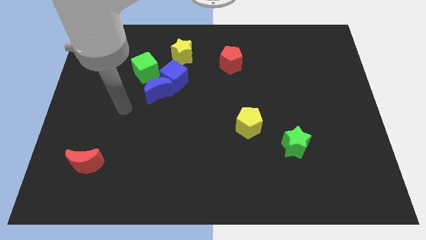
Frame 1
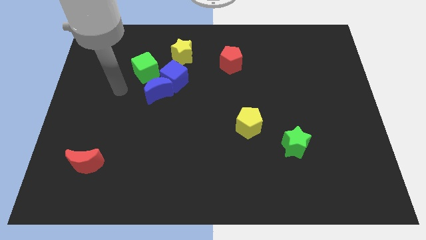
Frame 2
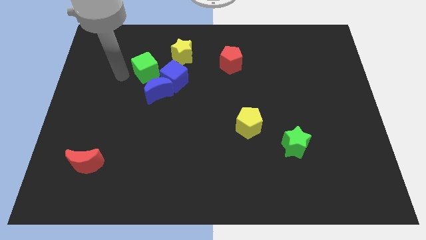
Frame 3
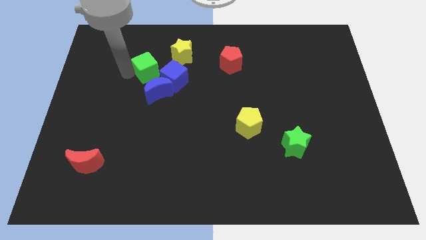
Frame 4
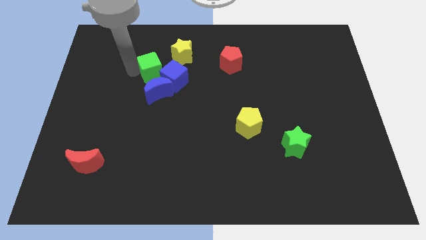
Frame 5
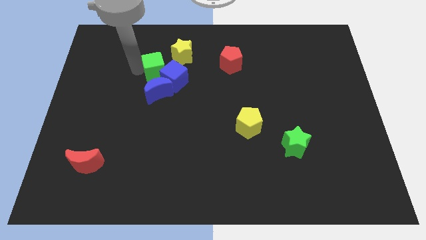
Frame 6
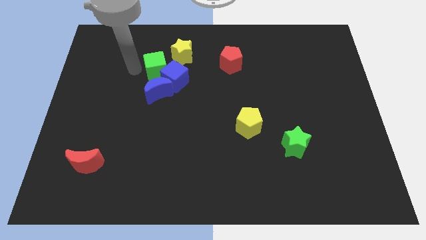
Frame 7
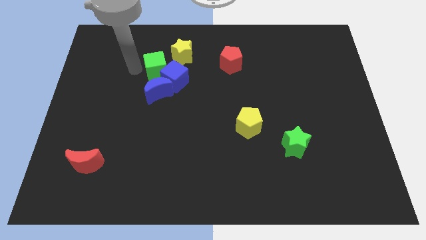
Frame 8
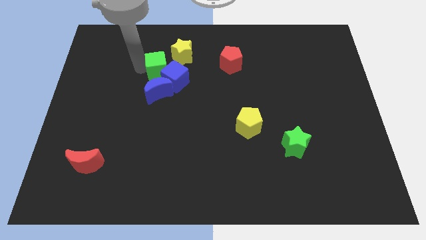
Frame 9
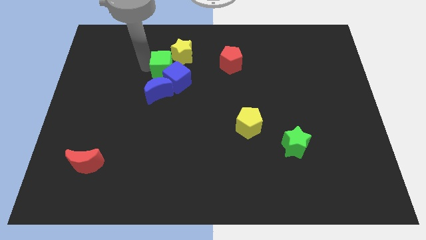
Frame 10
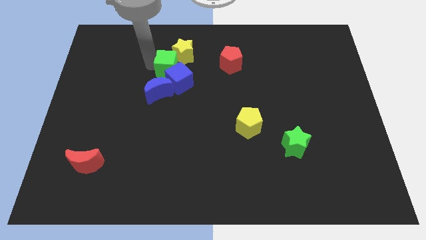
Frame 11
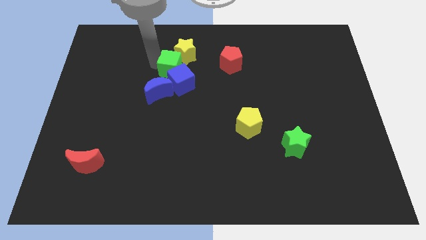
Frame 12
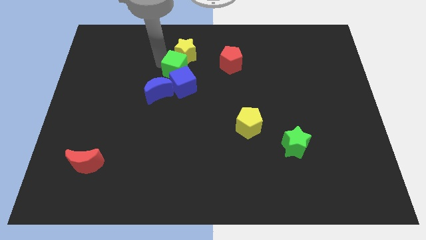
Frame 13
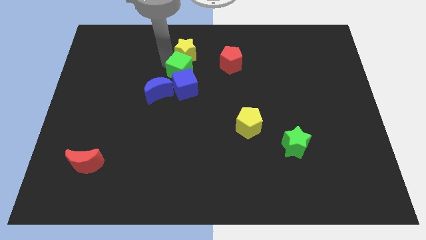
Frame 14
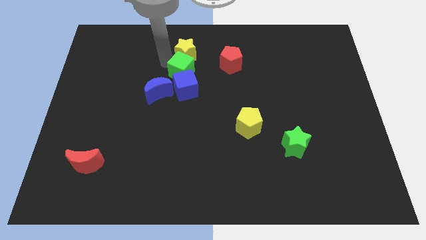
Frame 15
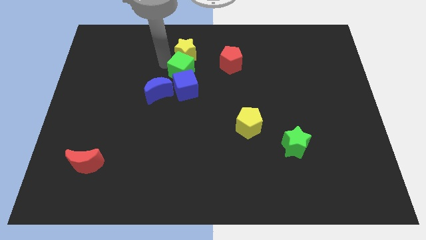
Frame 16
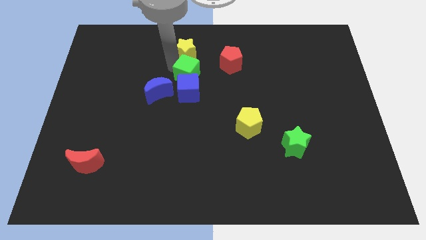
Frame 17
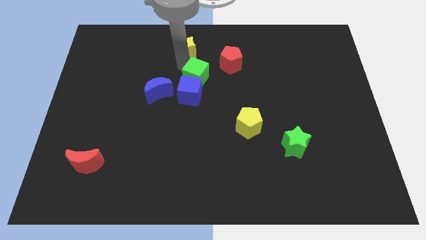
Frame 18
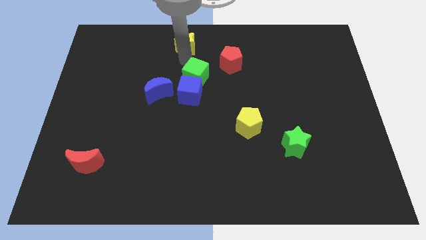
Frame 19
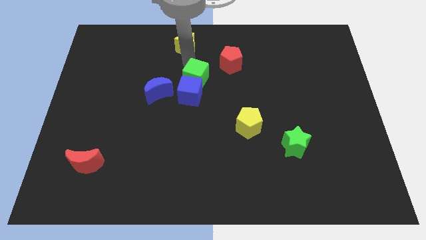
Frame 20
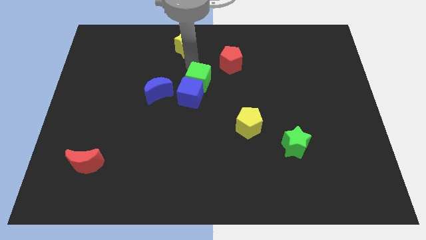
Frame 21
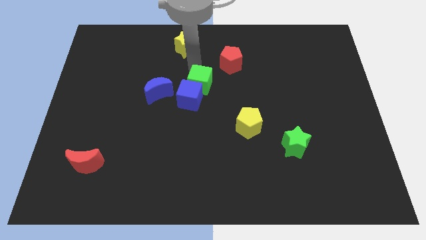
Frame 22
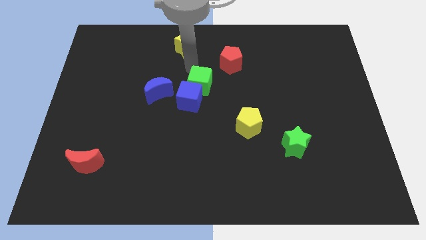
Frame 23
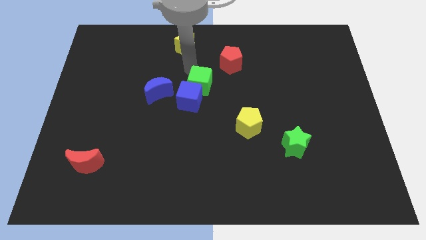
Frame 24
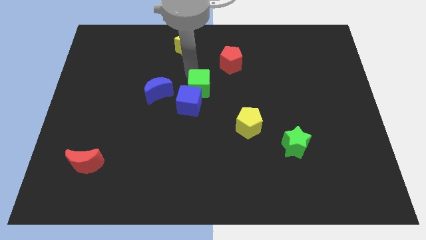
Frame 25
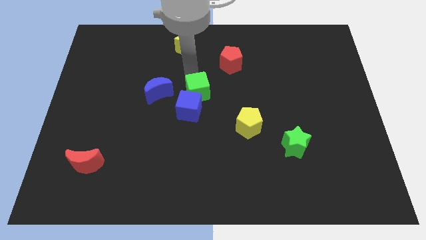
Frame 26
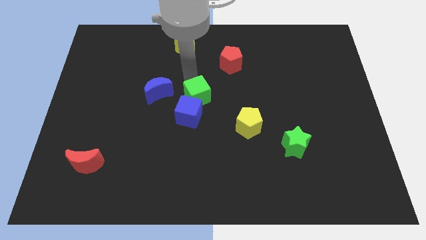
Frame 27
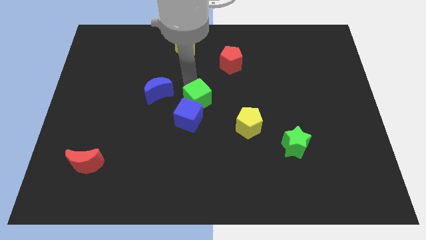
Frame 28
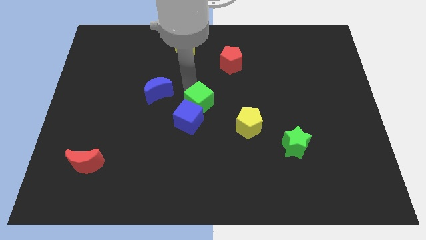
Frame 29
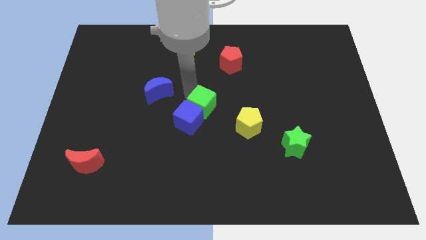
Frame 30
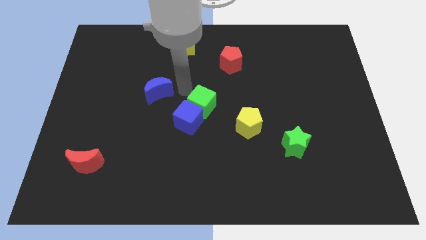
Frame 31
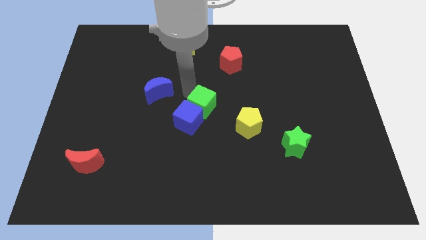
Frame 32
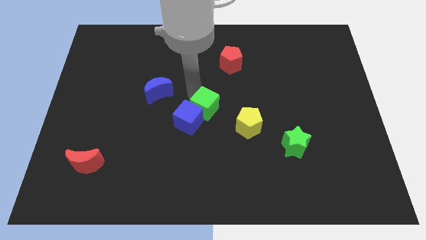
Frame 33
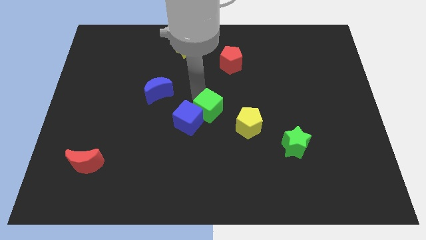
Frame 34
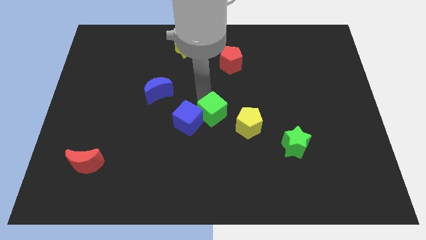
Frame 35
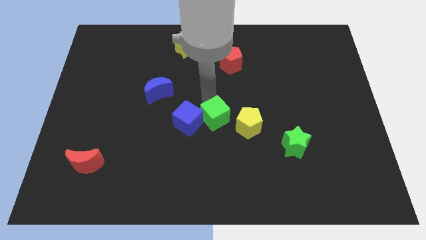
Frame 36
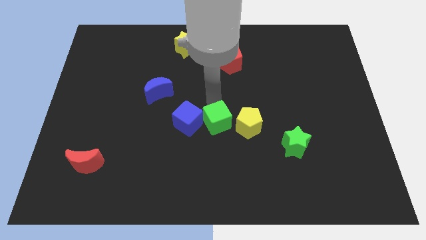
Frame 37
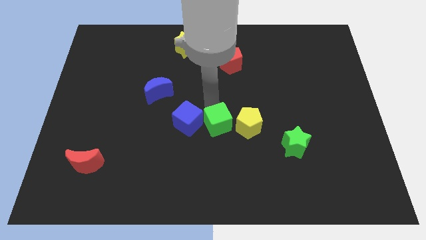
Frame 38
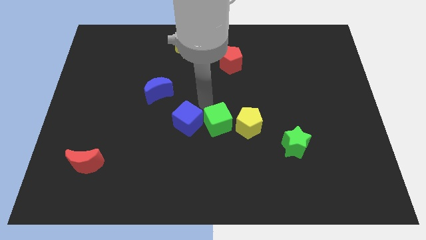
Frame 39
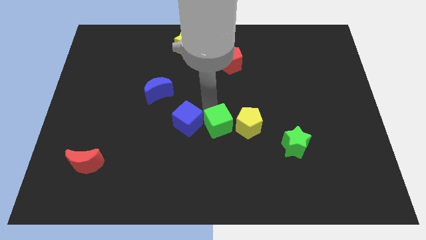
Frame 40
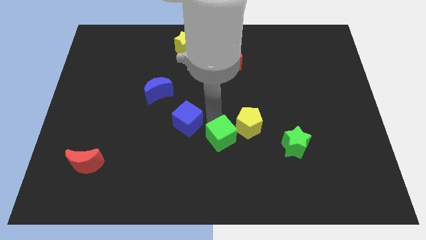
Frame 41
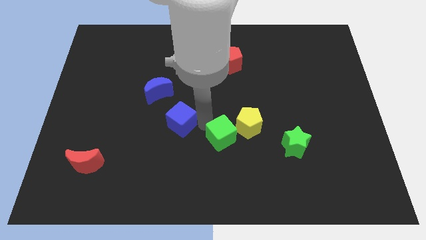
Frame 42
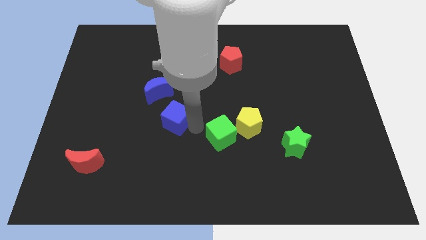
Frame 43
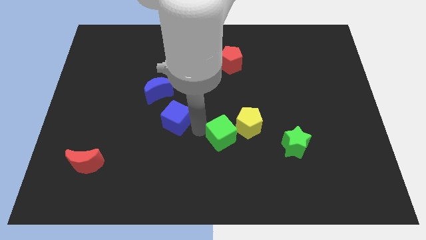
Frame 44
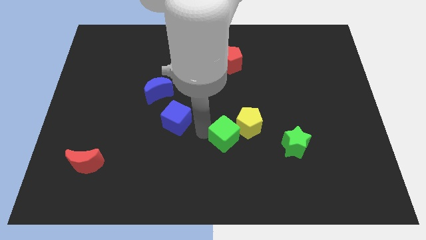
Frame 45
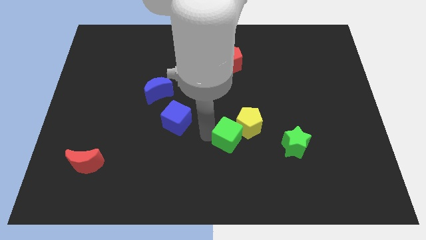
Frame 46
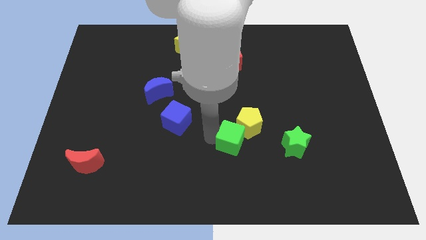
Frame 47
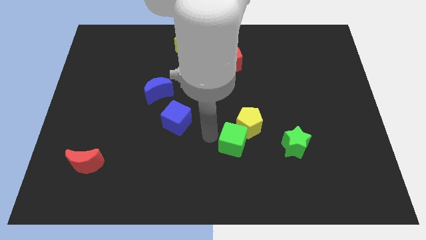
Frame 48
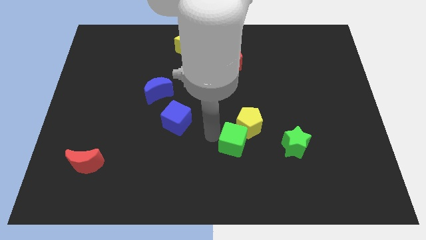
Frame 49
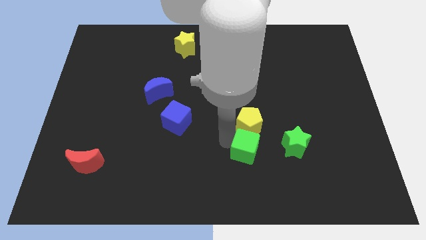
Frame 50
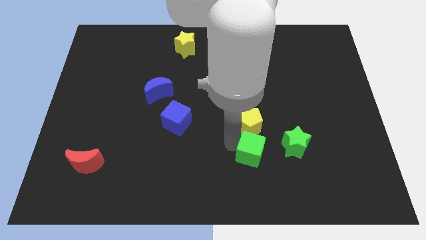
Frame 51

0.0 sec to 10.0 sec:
move the green cube to the bottom right side of the yellow pentagon

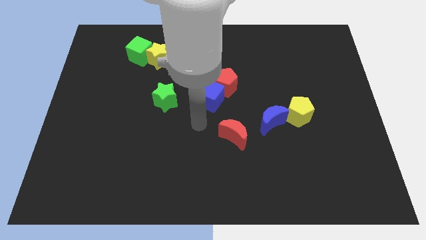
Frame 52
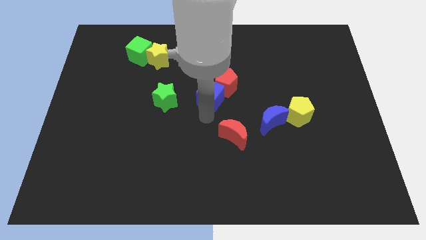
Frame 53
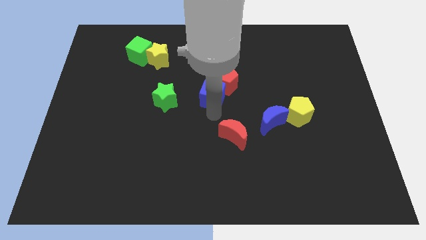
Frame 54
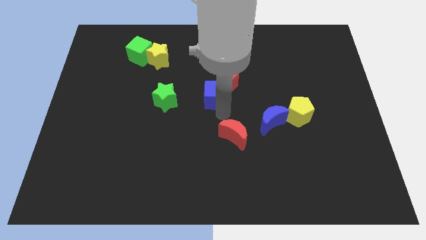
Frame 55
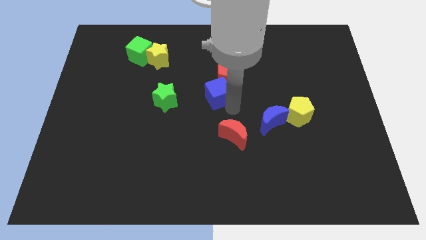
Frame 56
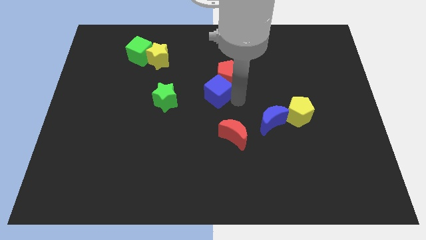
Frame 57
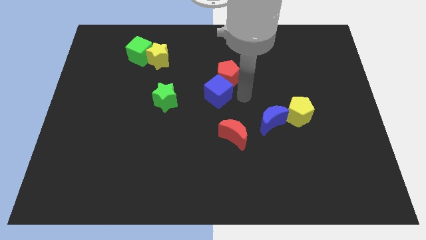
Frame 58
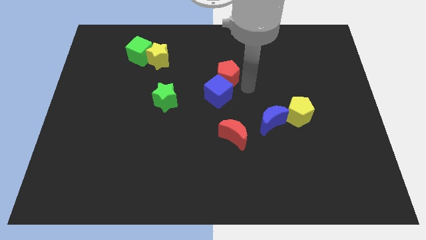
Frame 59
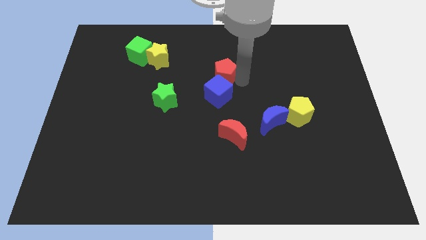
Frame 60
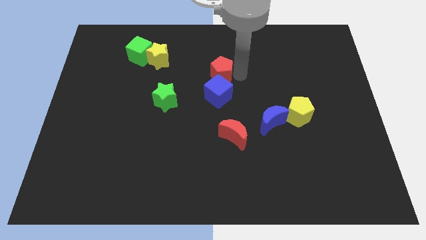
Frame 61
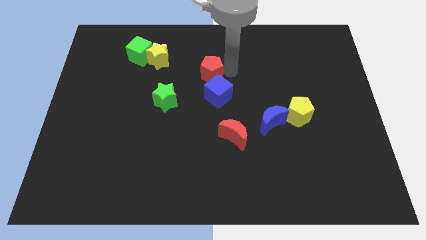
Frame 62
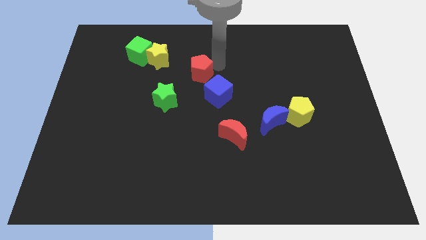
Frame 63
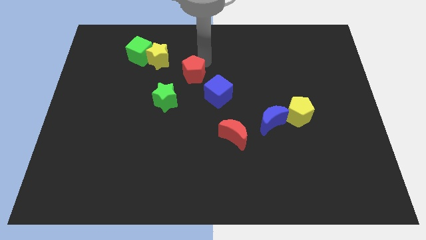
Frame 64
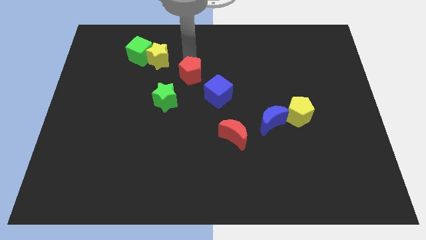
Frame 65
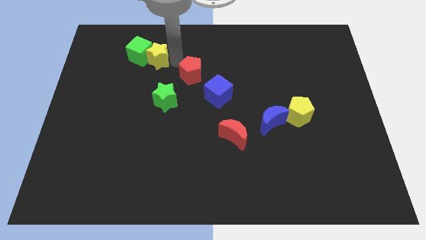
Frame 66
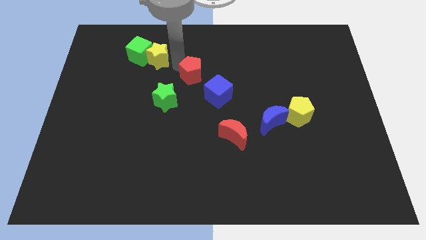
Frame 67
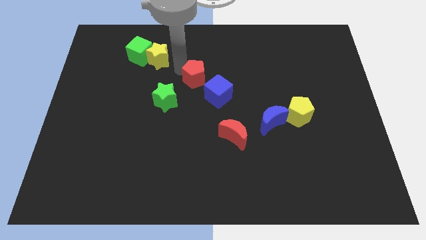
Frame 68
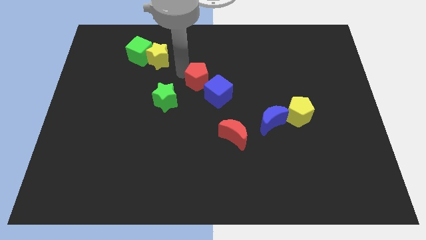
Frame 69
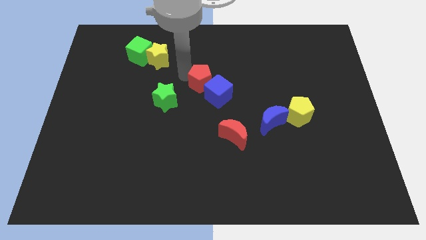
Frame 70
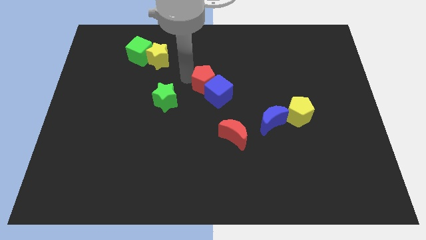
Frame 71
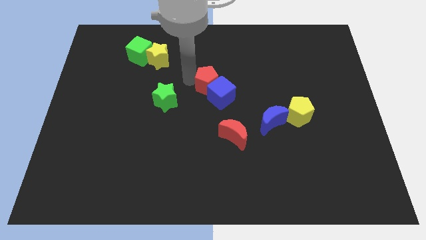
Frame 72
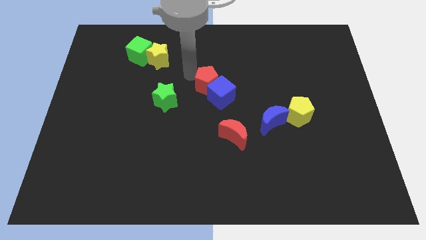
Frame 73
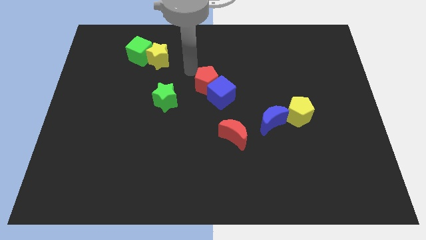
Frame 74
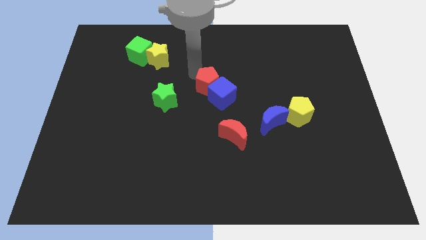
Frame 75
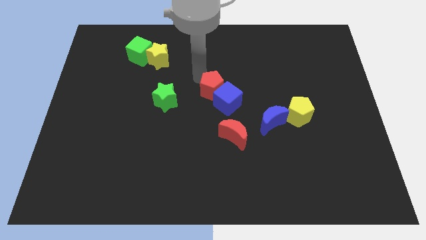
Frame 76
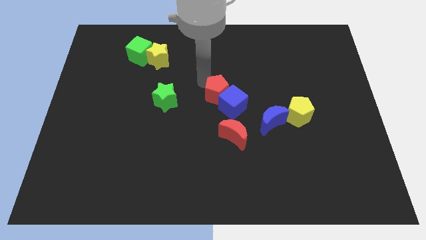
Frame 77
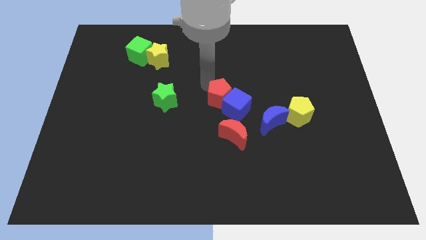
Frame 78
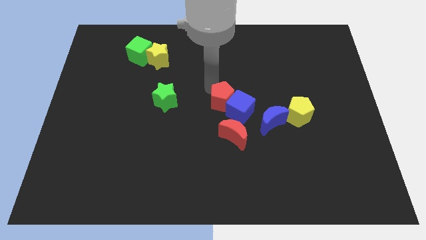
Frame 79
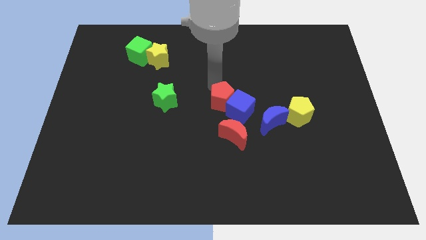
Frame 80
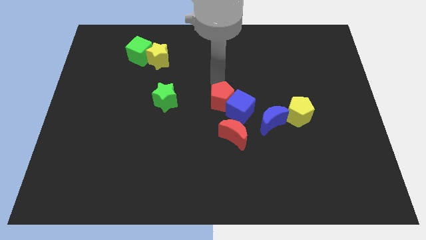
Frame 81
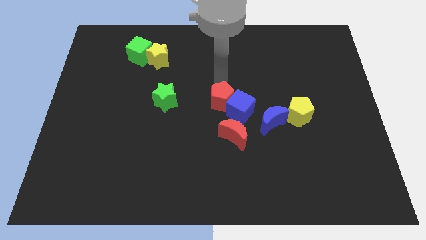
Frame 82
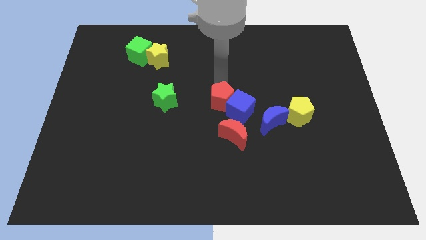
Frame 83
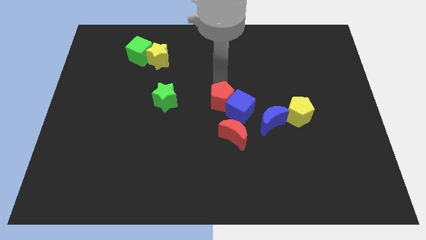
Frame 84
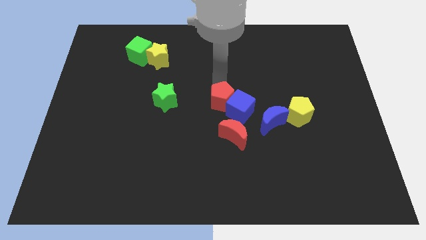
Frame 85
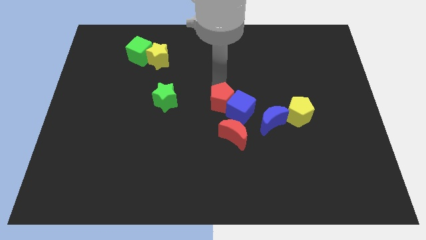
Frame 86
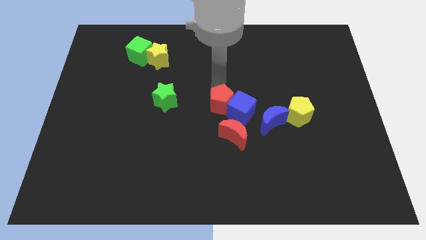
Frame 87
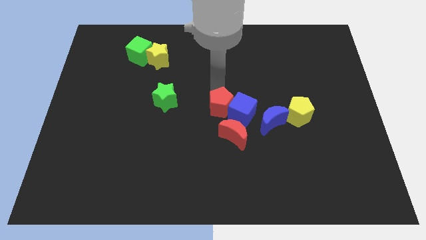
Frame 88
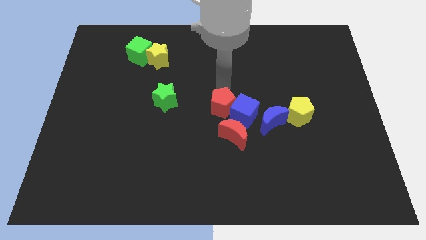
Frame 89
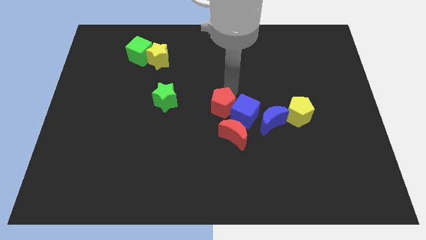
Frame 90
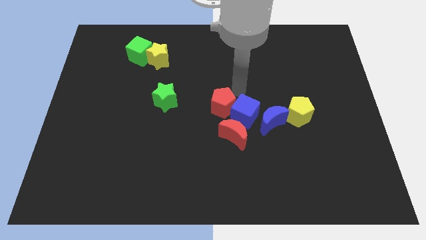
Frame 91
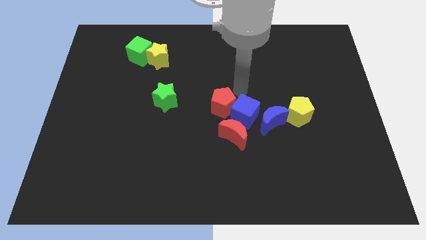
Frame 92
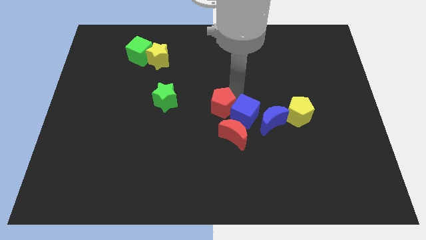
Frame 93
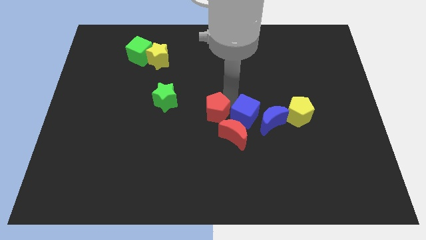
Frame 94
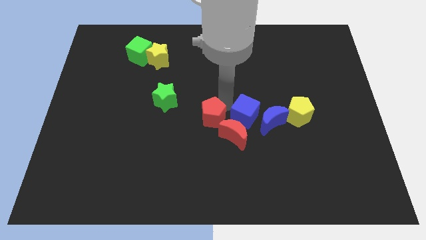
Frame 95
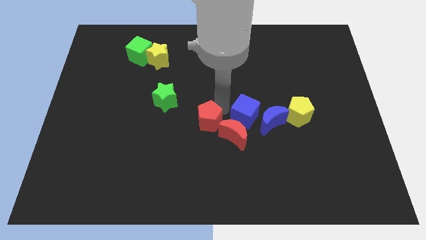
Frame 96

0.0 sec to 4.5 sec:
move the red pentagon to the left of the red moon
